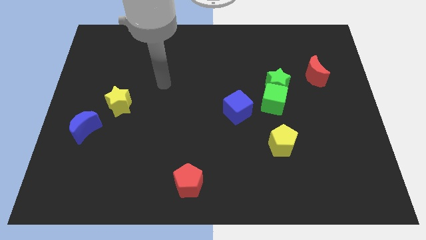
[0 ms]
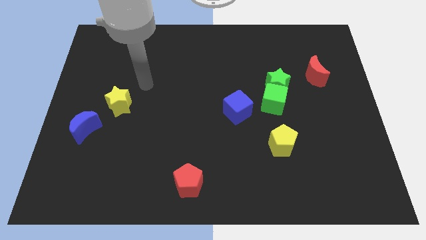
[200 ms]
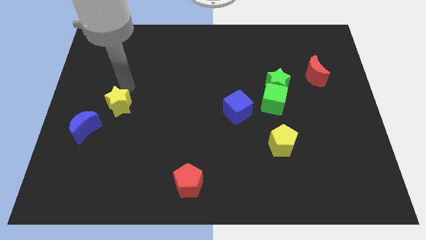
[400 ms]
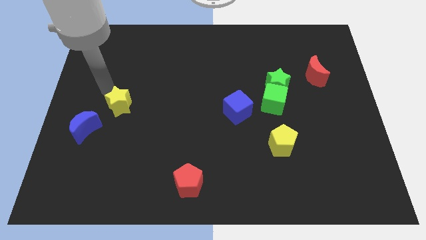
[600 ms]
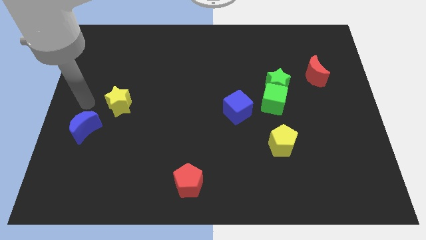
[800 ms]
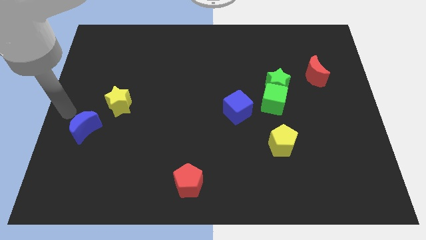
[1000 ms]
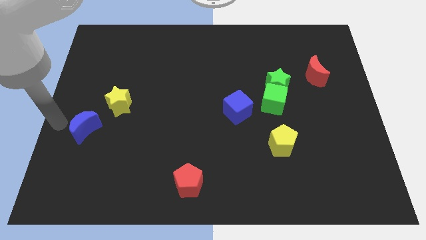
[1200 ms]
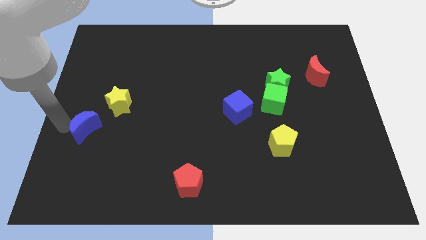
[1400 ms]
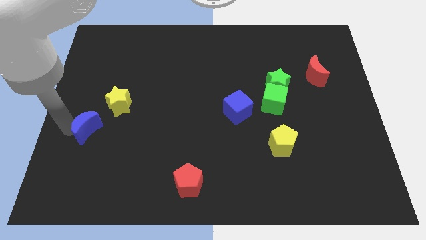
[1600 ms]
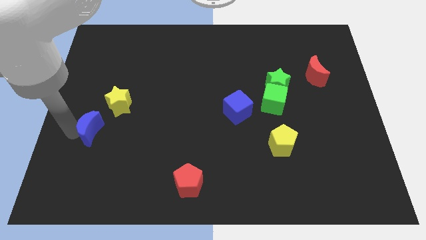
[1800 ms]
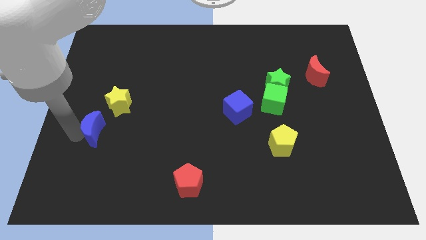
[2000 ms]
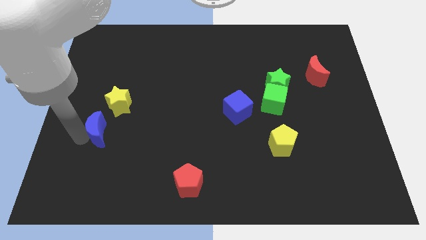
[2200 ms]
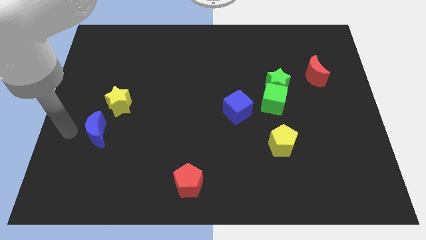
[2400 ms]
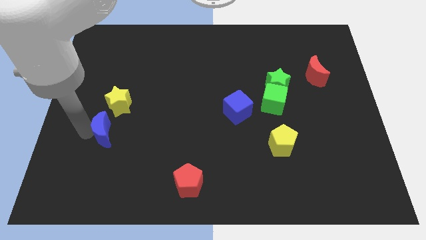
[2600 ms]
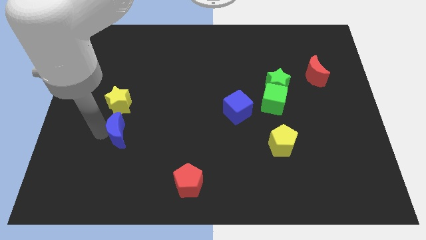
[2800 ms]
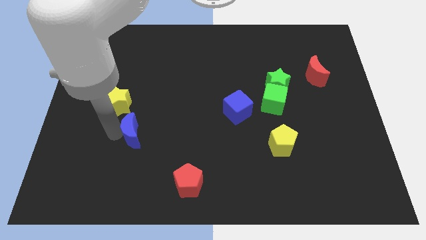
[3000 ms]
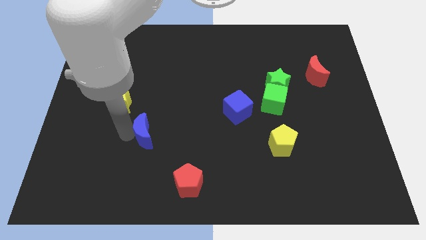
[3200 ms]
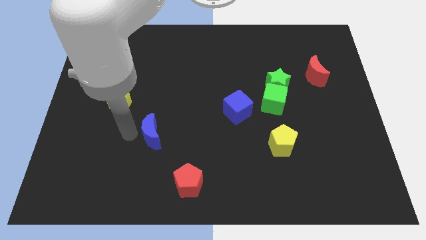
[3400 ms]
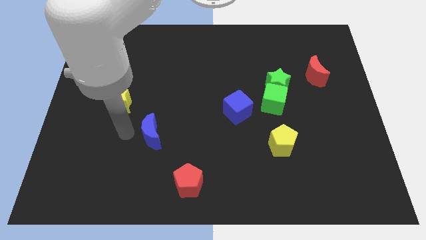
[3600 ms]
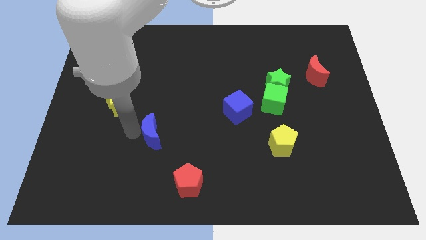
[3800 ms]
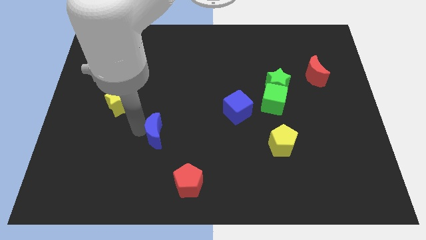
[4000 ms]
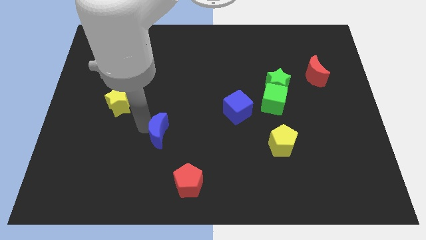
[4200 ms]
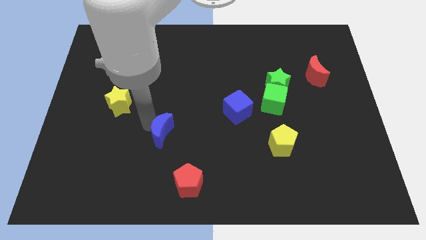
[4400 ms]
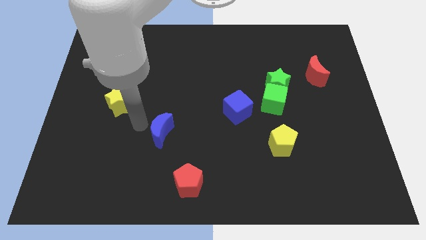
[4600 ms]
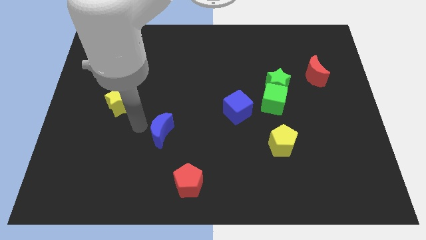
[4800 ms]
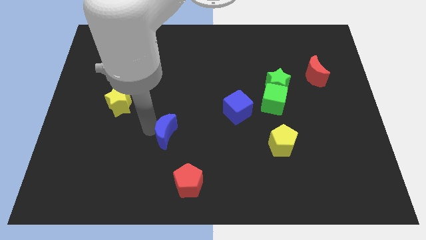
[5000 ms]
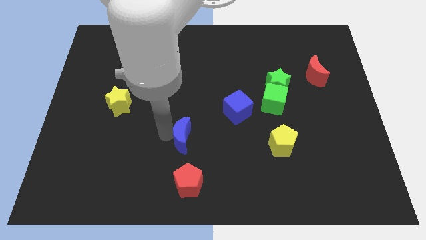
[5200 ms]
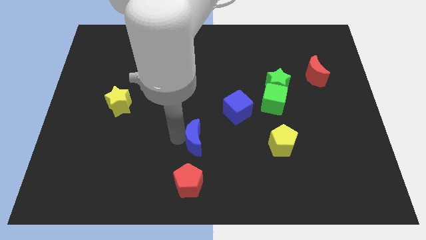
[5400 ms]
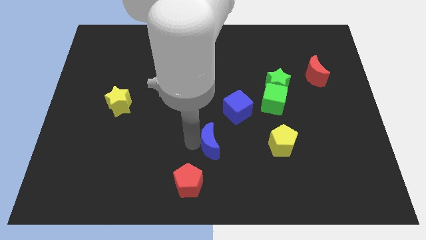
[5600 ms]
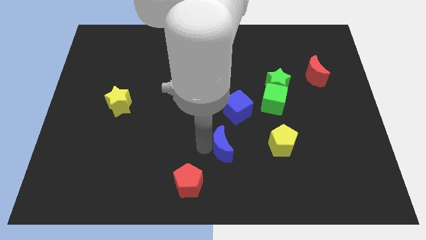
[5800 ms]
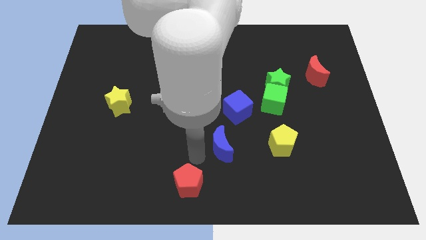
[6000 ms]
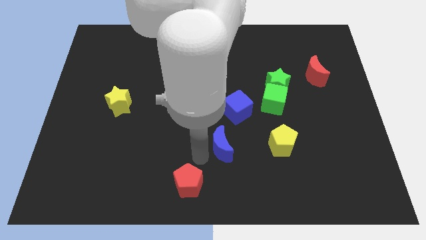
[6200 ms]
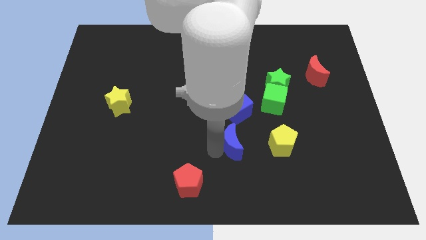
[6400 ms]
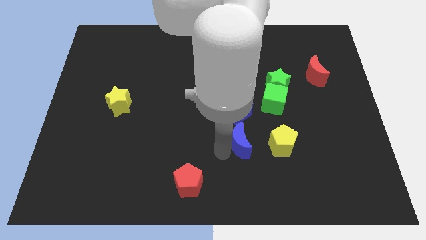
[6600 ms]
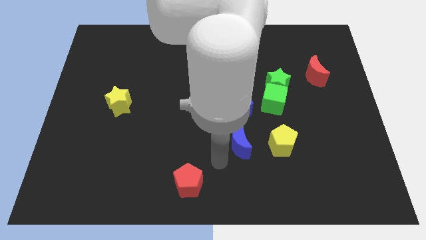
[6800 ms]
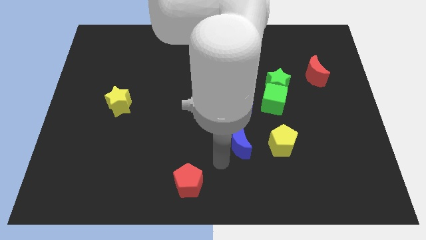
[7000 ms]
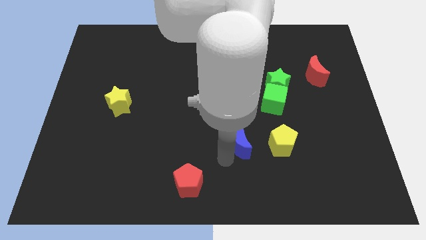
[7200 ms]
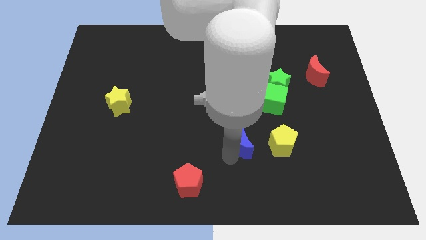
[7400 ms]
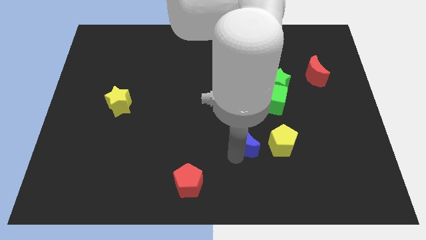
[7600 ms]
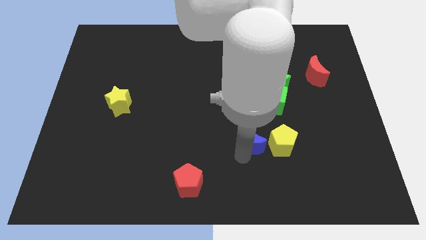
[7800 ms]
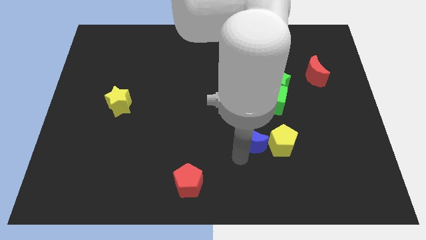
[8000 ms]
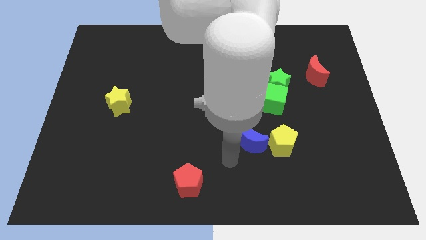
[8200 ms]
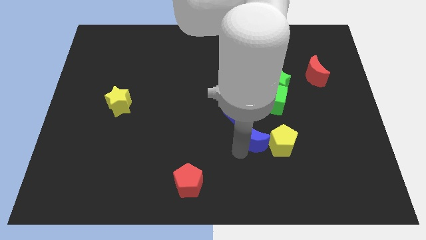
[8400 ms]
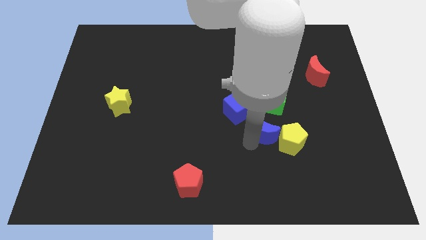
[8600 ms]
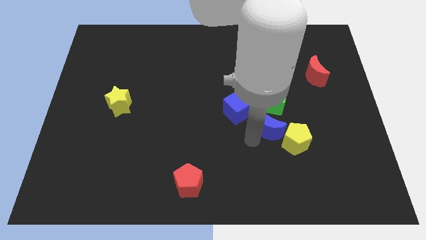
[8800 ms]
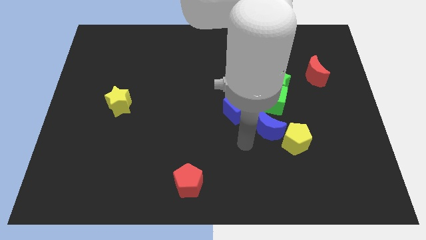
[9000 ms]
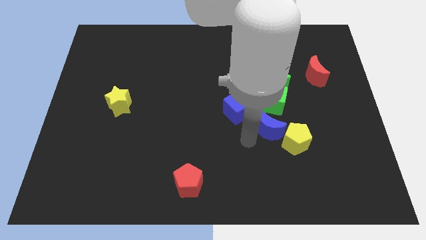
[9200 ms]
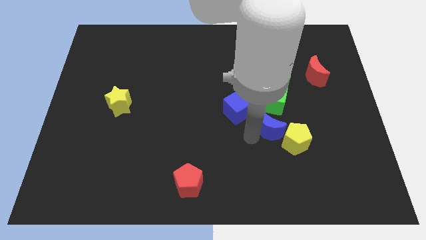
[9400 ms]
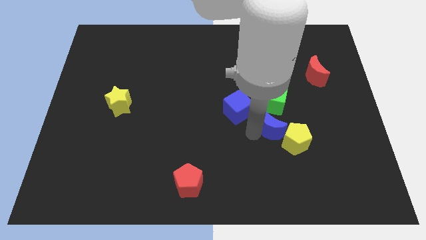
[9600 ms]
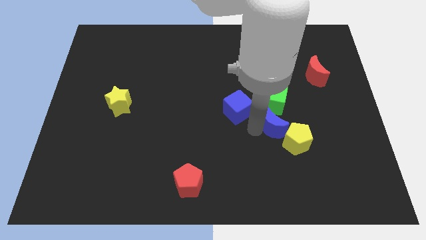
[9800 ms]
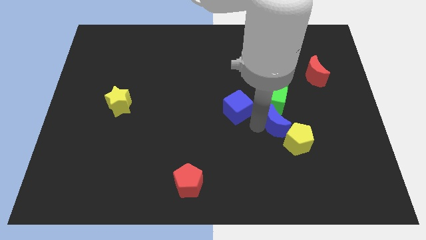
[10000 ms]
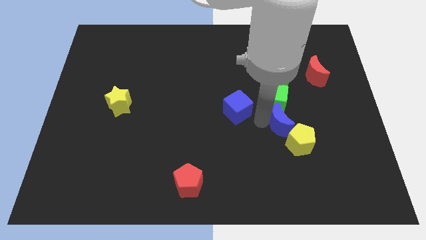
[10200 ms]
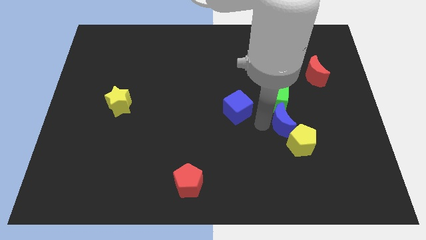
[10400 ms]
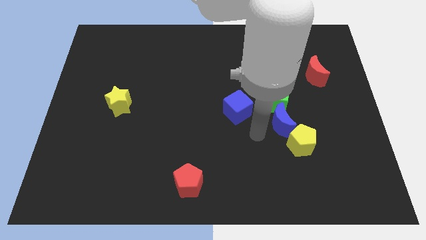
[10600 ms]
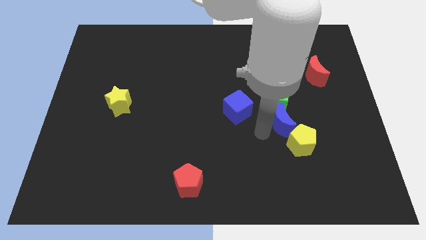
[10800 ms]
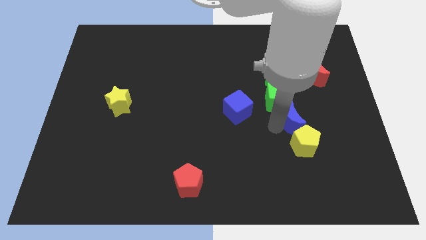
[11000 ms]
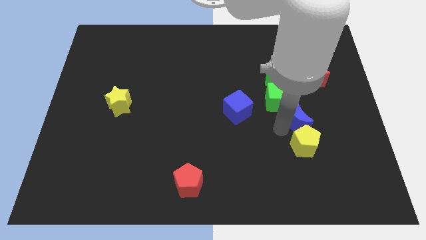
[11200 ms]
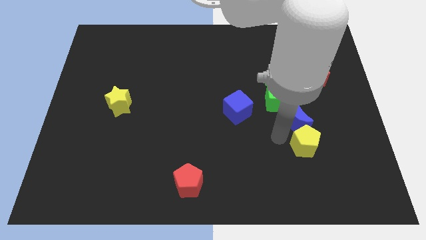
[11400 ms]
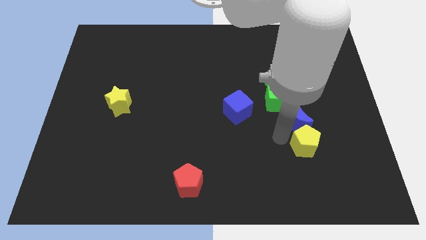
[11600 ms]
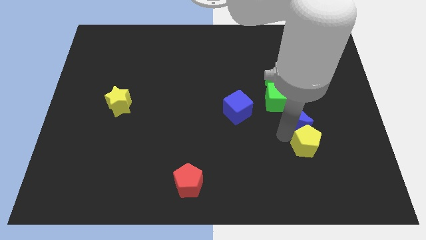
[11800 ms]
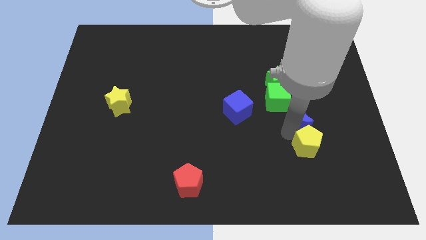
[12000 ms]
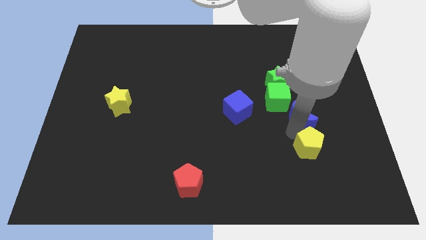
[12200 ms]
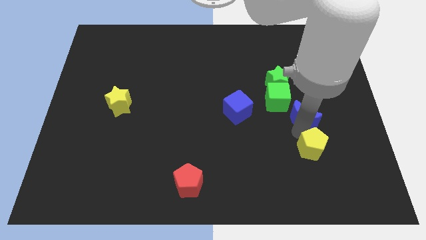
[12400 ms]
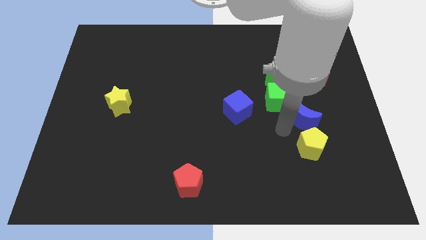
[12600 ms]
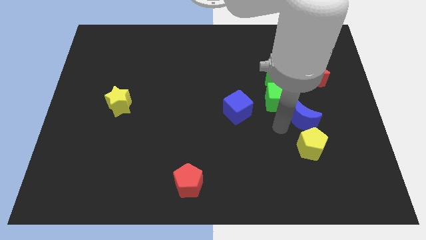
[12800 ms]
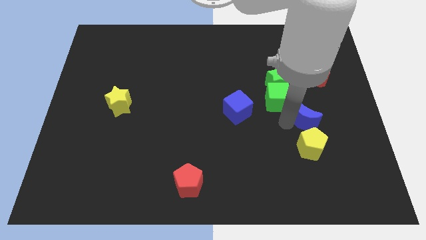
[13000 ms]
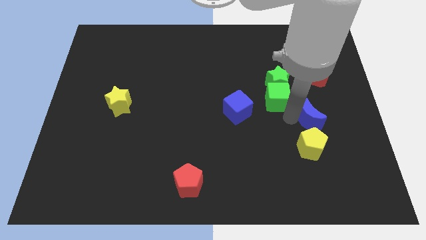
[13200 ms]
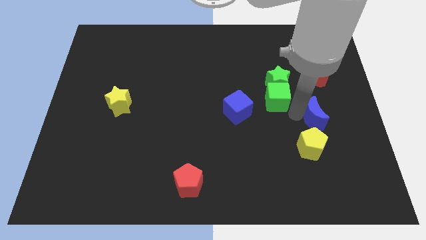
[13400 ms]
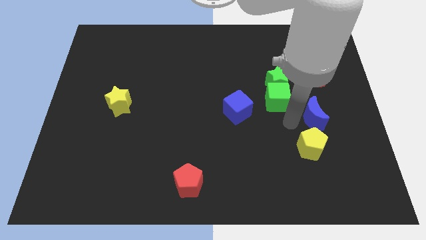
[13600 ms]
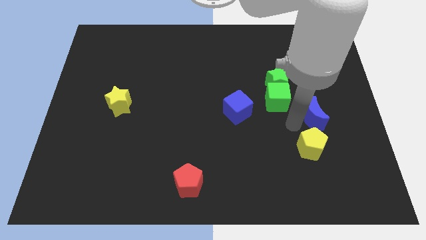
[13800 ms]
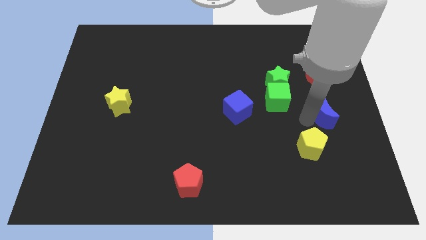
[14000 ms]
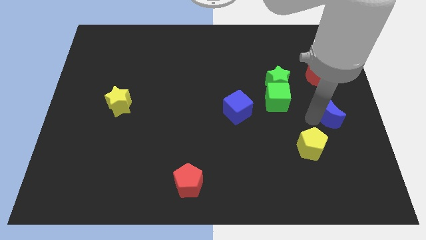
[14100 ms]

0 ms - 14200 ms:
move the blue moon to the center right
